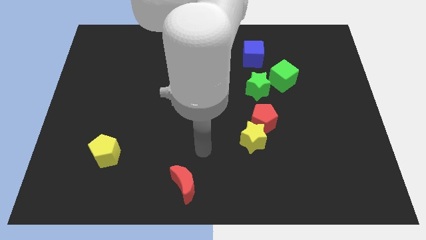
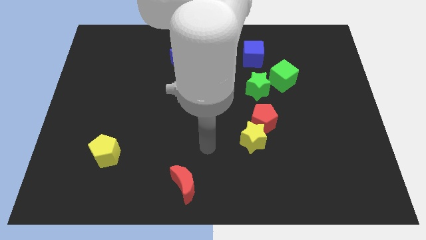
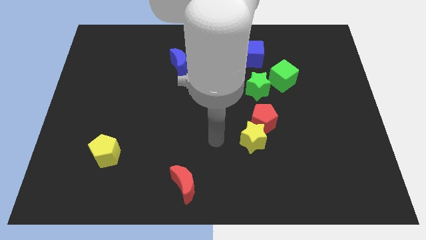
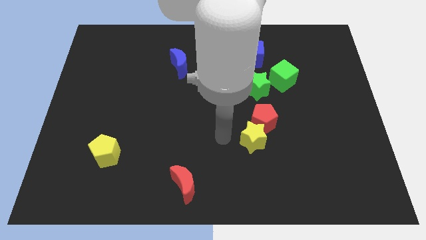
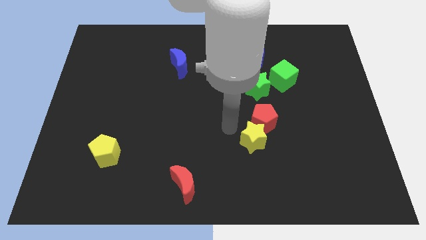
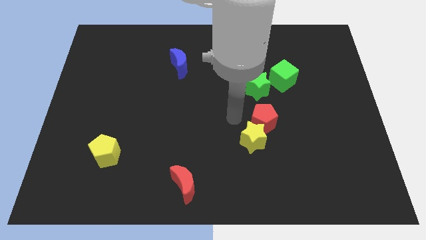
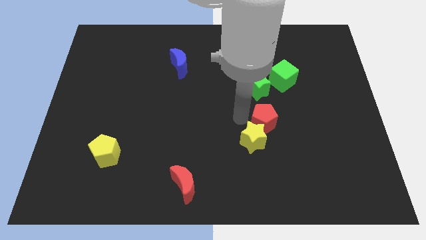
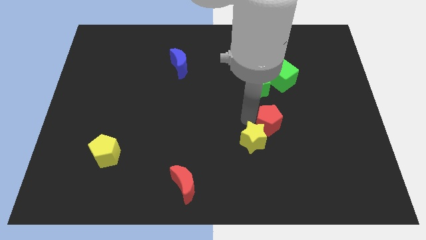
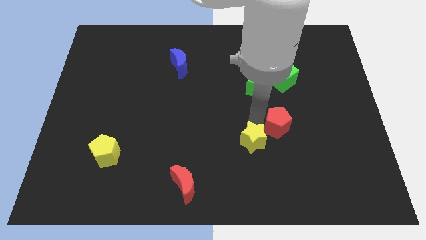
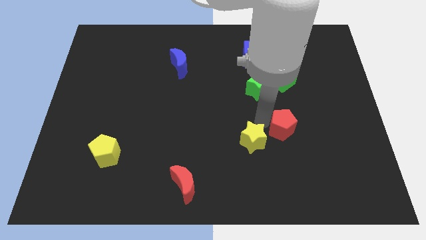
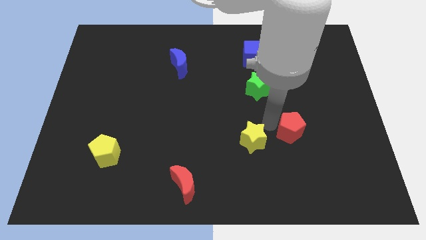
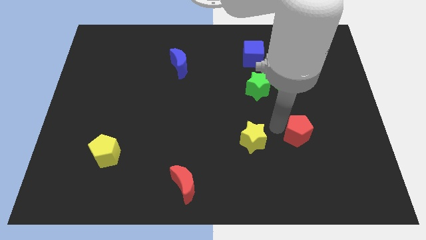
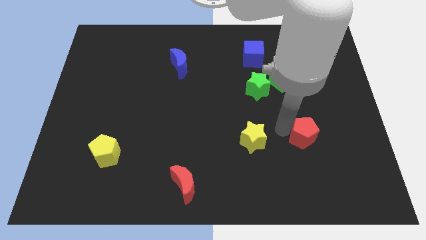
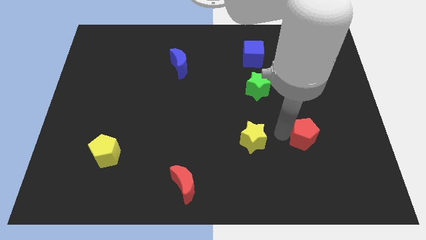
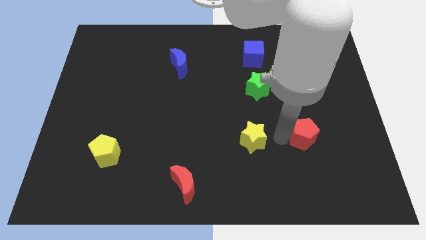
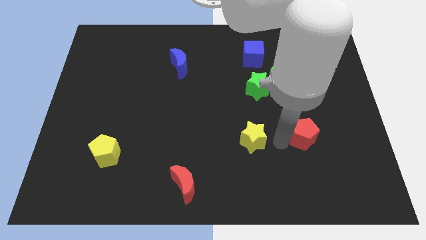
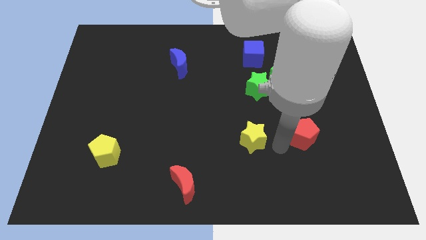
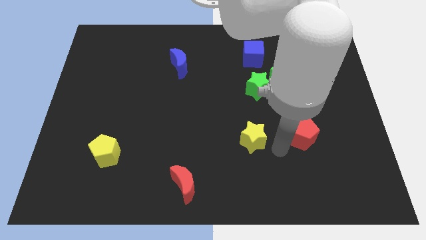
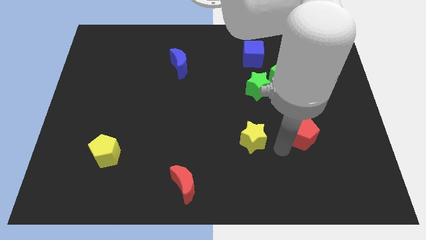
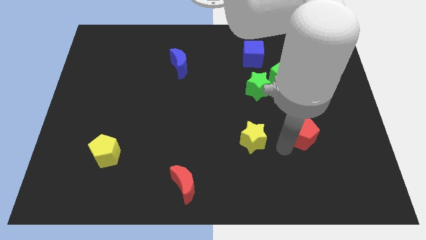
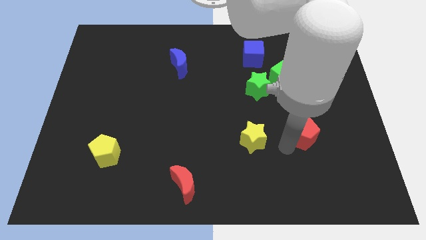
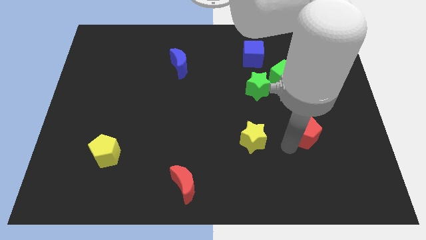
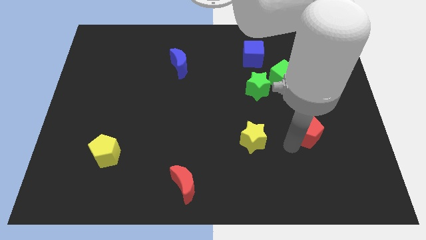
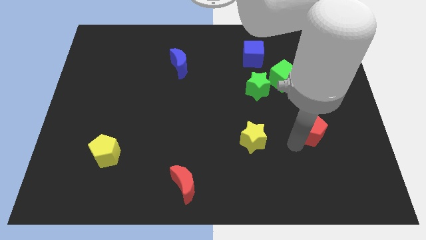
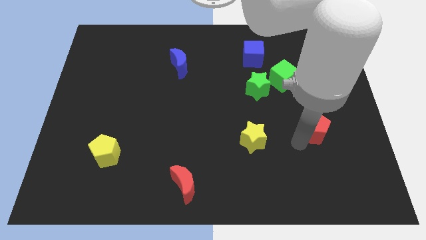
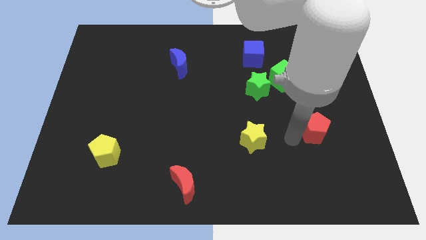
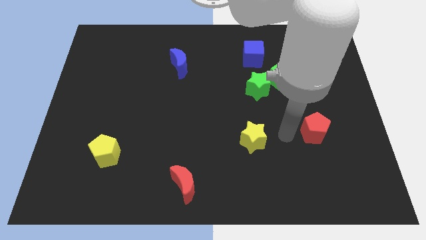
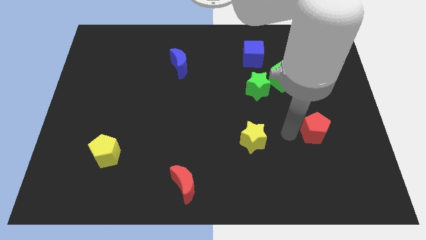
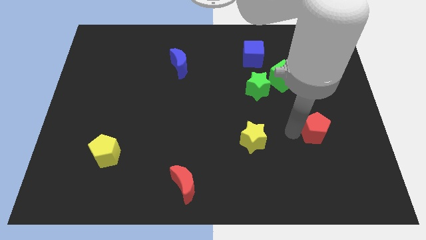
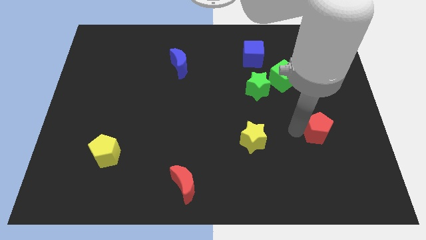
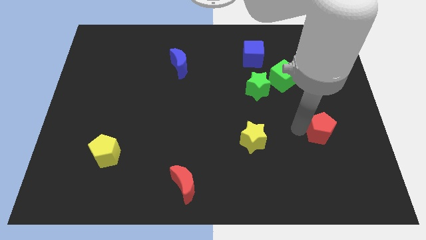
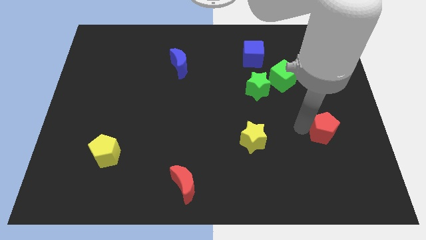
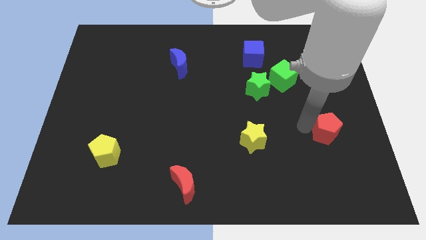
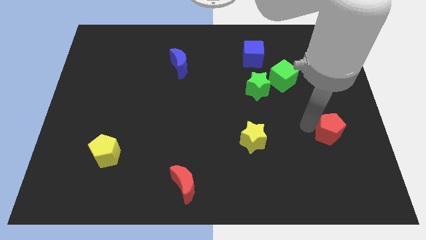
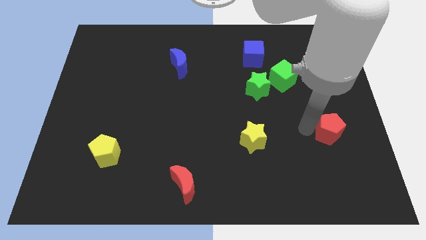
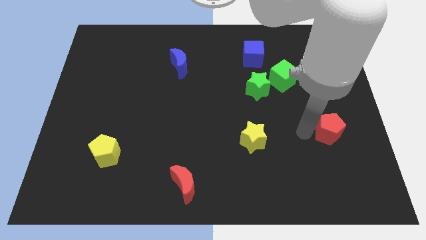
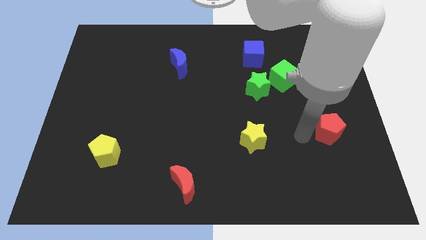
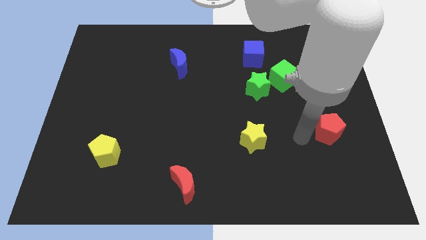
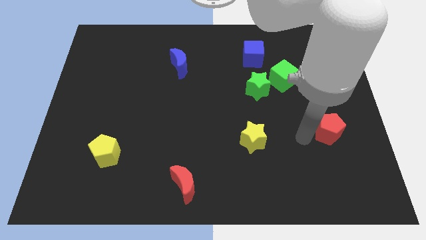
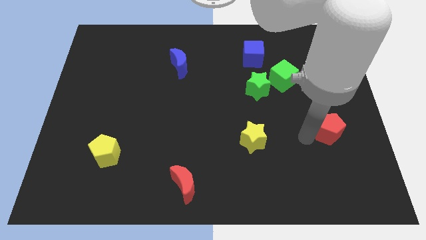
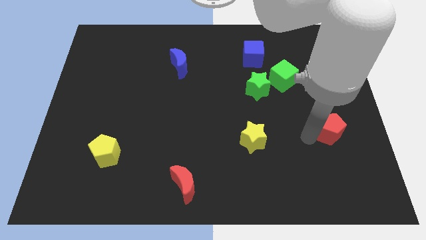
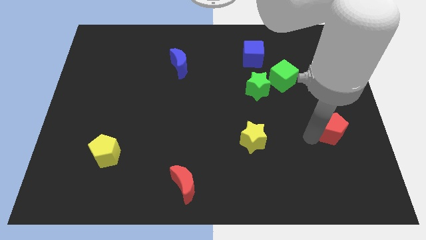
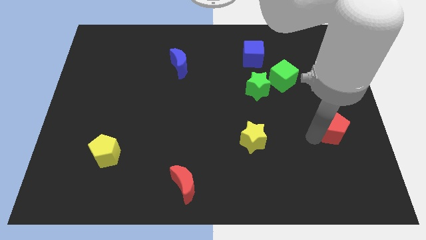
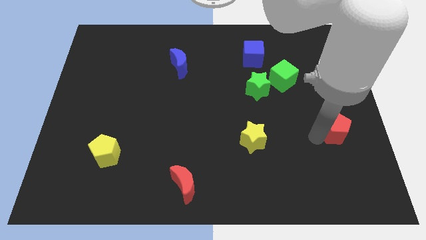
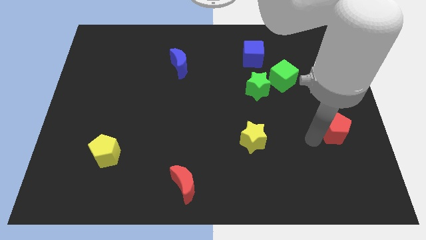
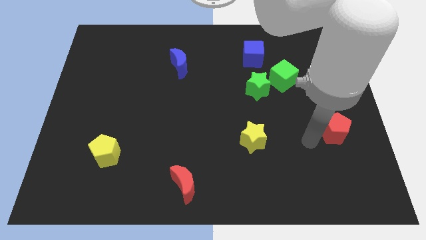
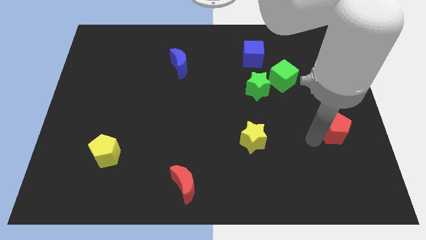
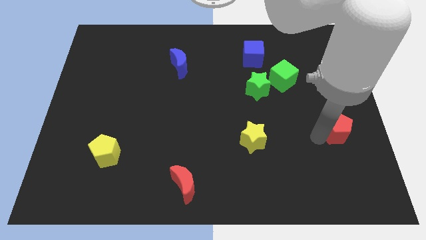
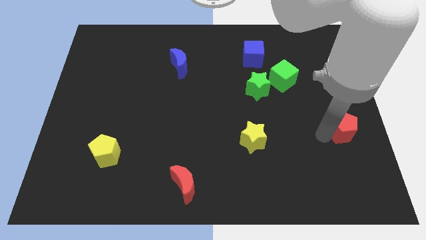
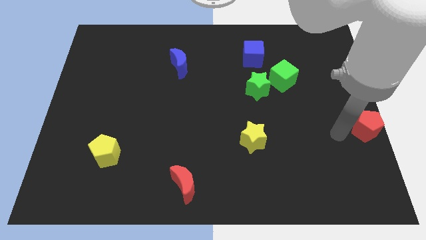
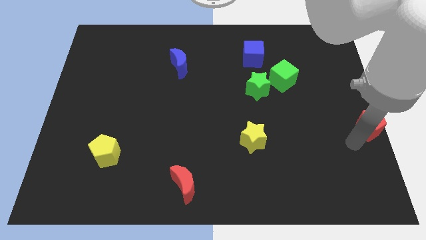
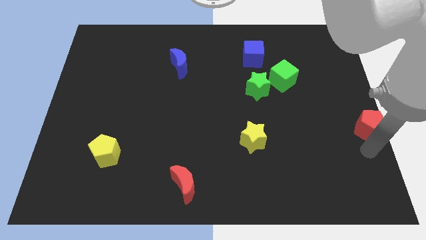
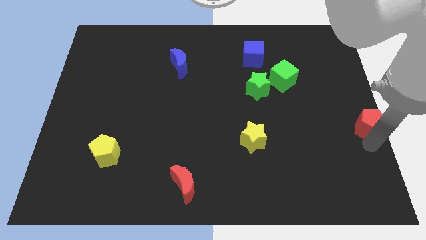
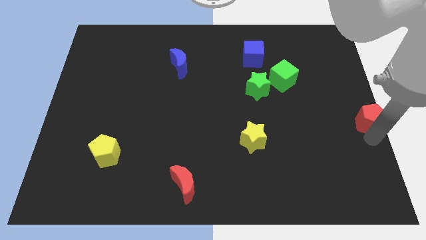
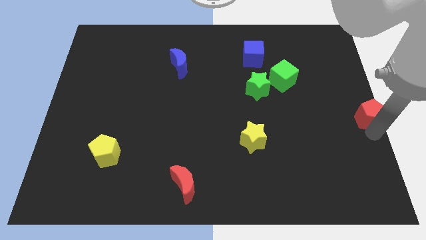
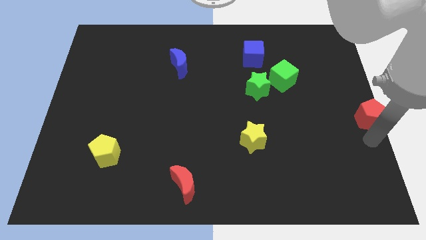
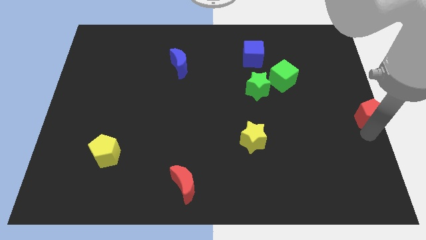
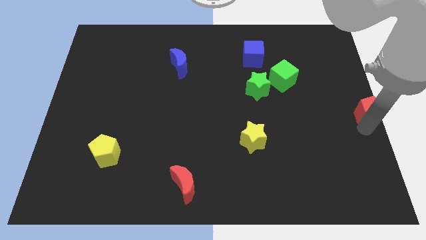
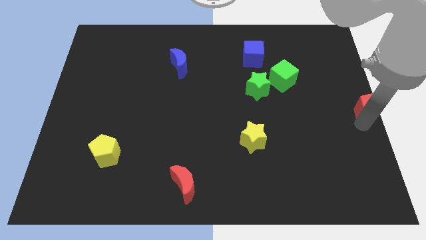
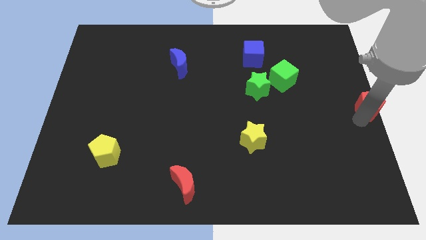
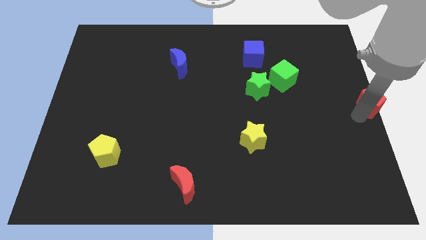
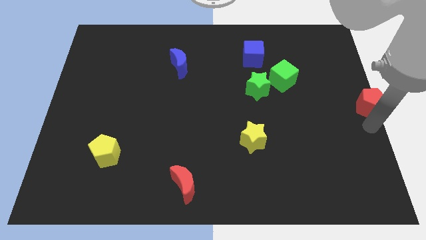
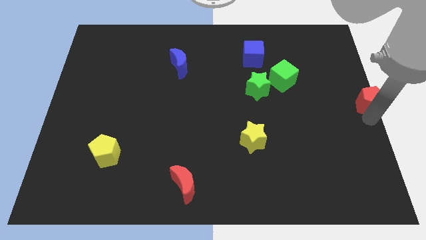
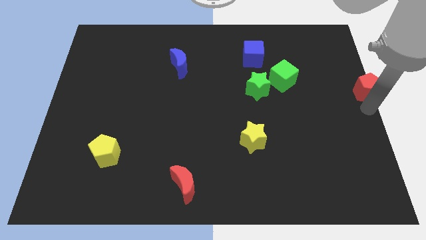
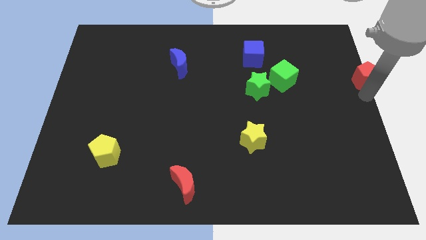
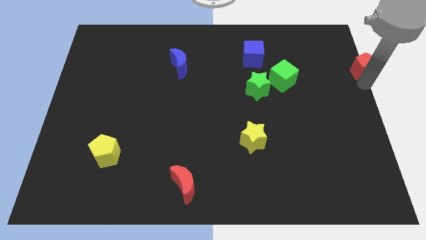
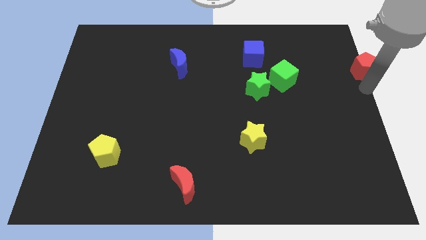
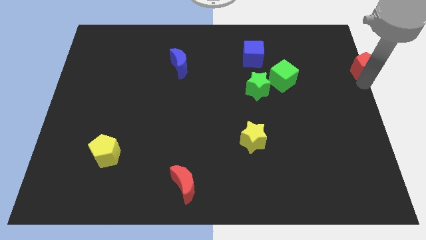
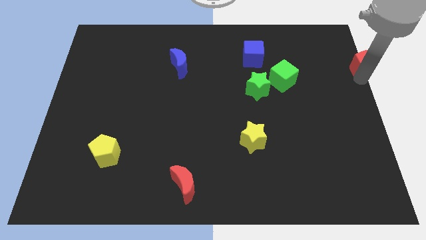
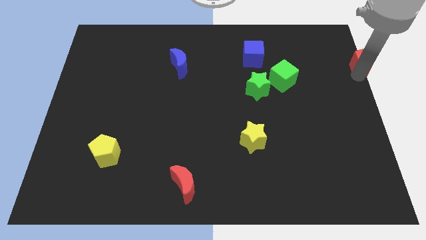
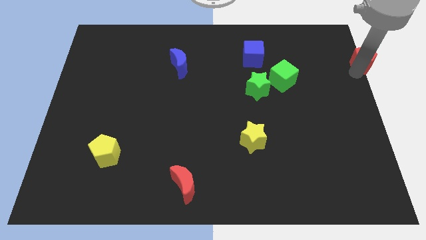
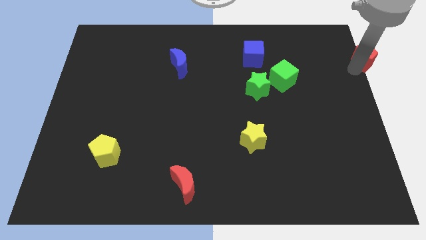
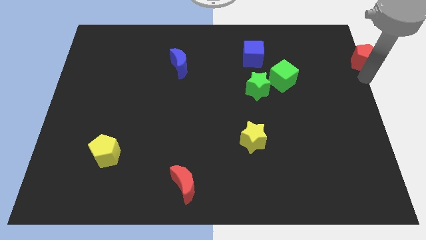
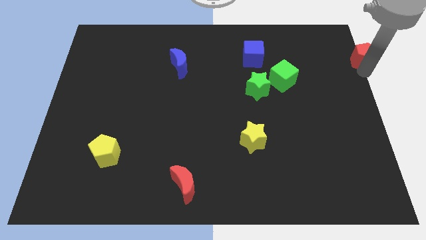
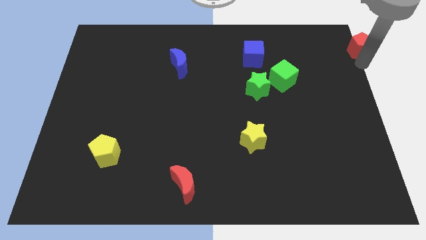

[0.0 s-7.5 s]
slide the red pentagon to the top right of the board
